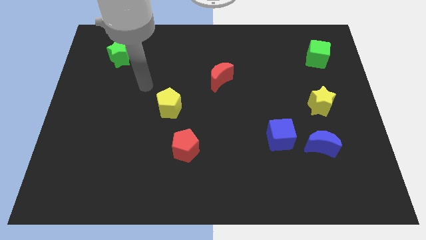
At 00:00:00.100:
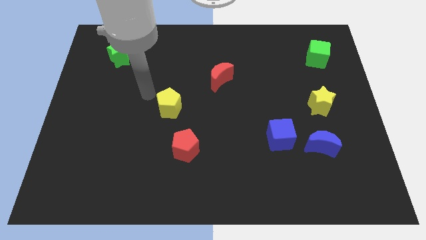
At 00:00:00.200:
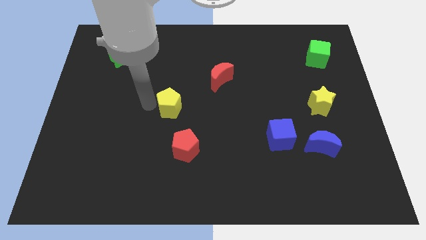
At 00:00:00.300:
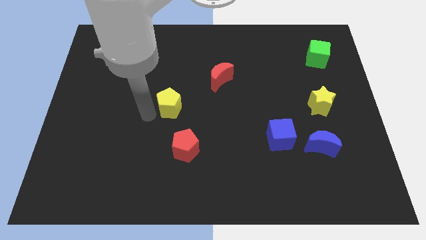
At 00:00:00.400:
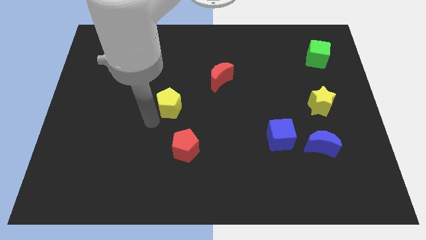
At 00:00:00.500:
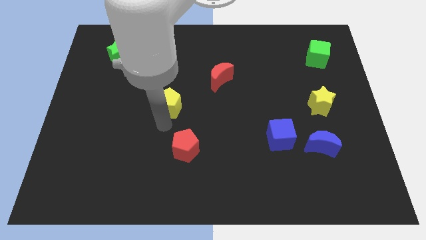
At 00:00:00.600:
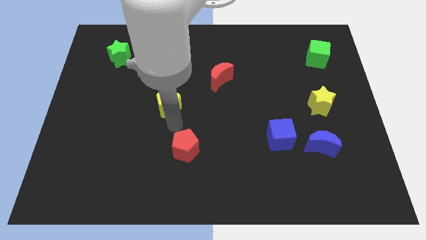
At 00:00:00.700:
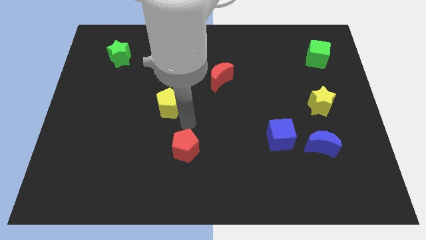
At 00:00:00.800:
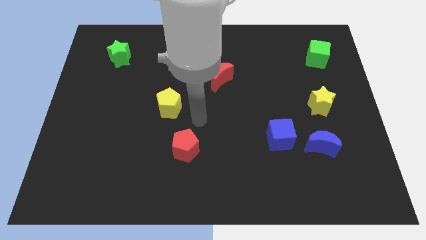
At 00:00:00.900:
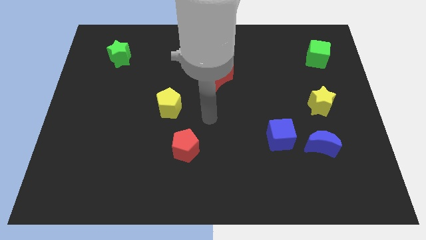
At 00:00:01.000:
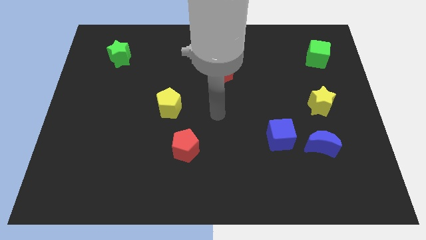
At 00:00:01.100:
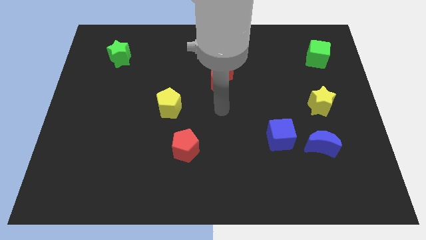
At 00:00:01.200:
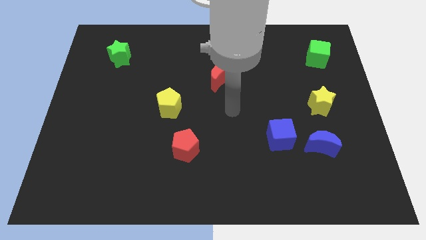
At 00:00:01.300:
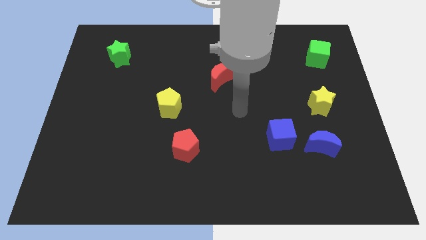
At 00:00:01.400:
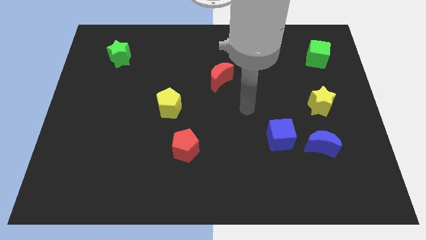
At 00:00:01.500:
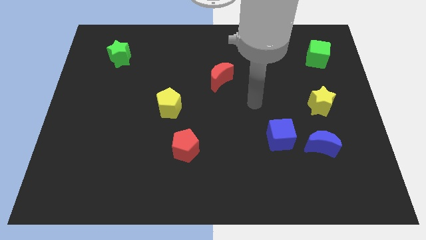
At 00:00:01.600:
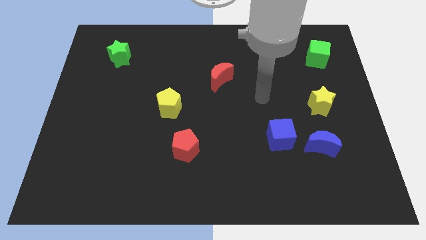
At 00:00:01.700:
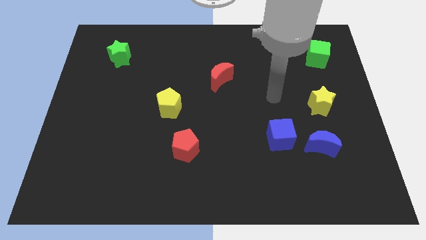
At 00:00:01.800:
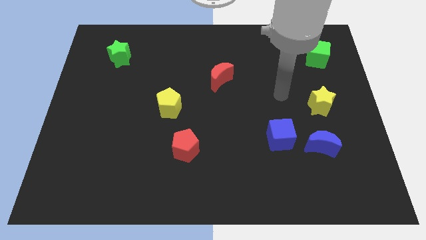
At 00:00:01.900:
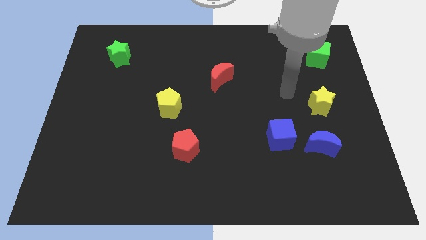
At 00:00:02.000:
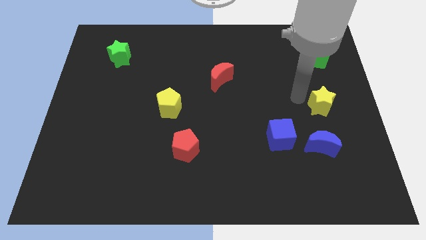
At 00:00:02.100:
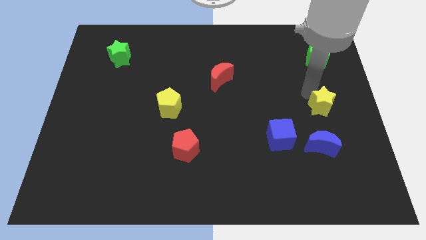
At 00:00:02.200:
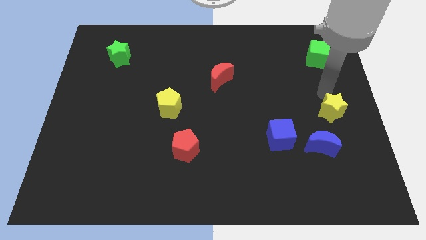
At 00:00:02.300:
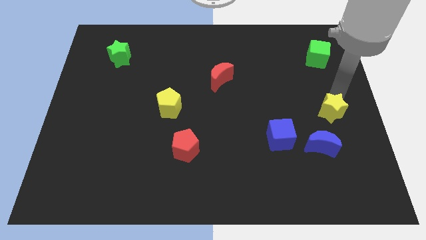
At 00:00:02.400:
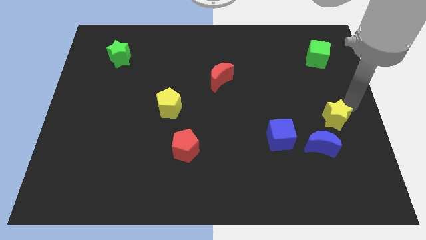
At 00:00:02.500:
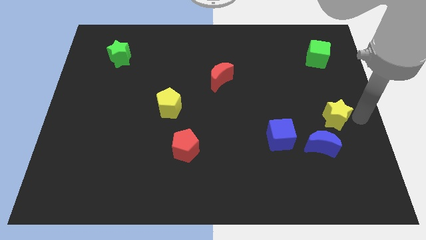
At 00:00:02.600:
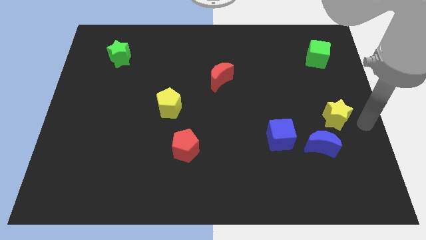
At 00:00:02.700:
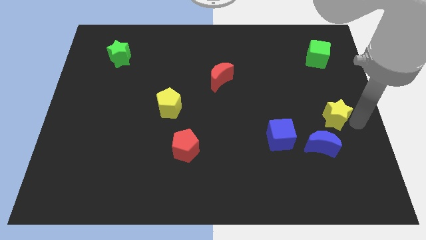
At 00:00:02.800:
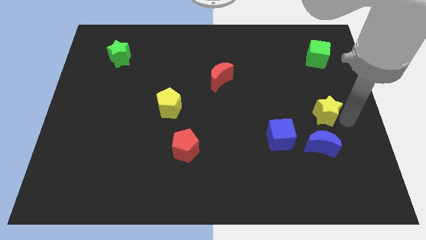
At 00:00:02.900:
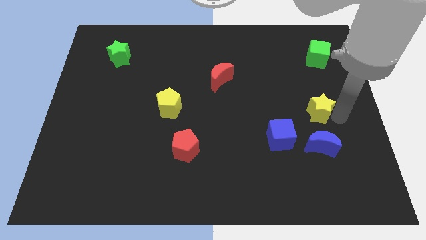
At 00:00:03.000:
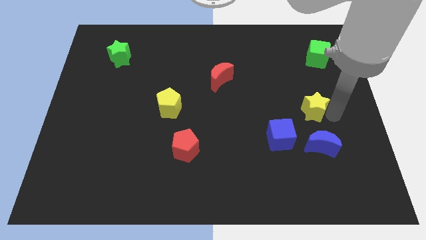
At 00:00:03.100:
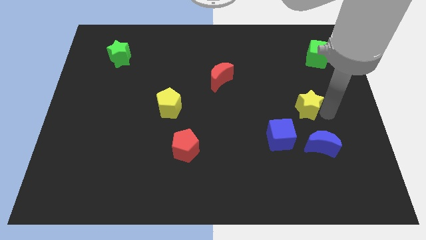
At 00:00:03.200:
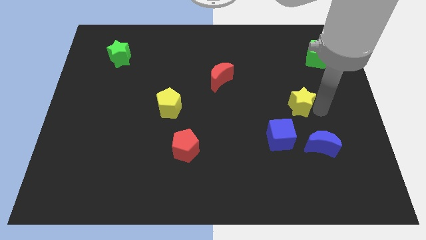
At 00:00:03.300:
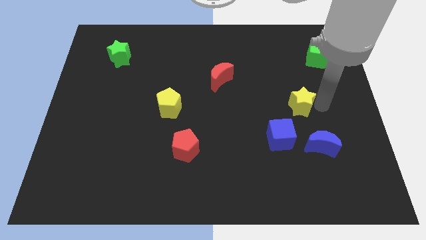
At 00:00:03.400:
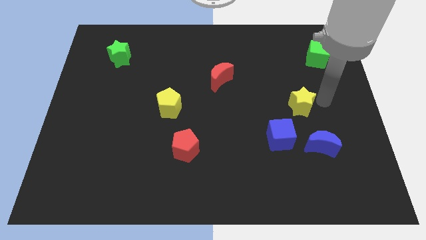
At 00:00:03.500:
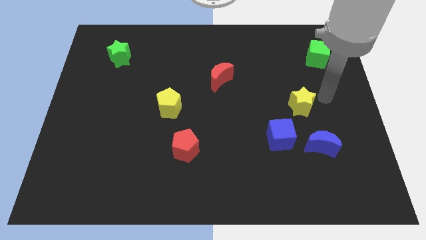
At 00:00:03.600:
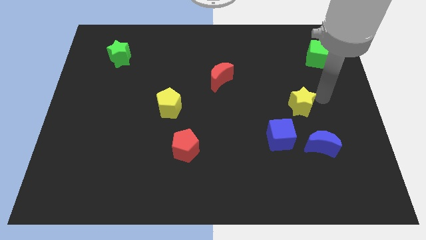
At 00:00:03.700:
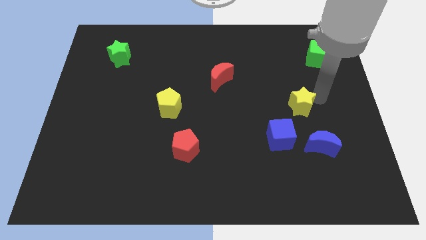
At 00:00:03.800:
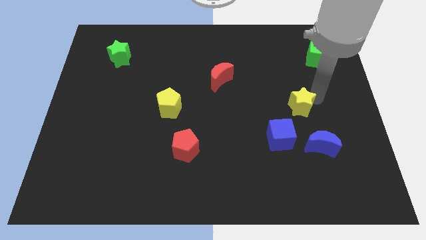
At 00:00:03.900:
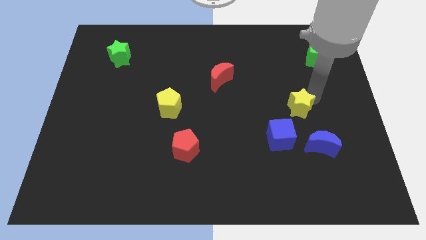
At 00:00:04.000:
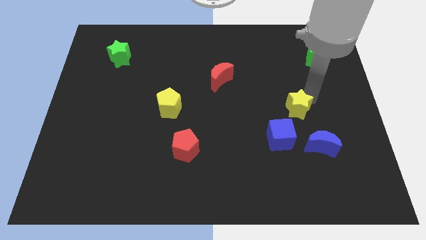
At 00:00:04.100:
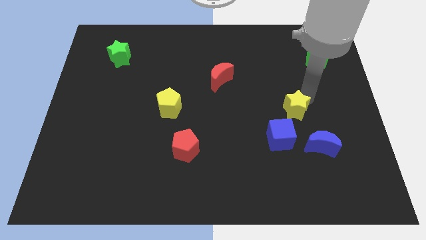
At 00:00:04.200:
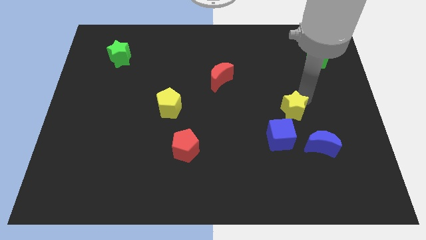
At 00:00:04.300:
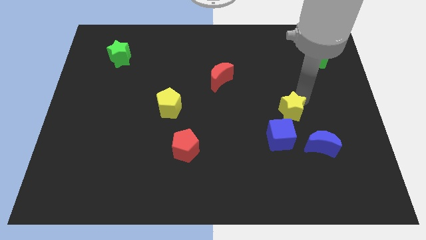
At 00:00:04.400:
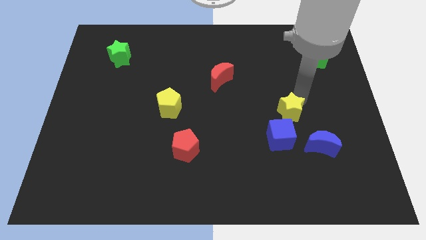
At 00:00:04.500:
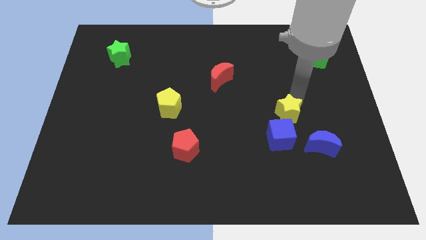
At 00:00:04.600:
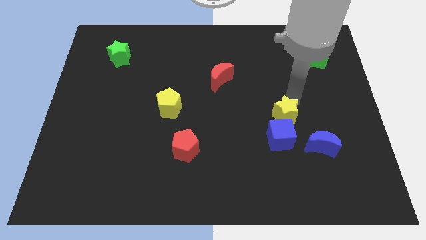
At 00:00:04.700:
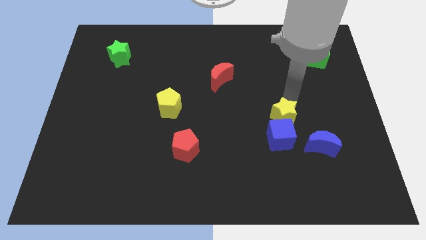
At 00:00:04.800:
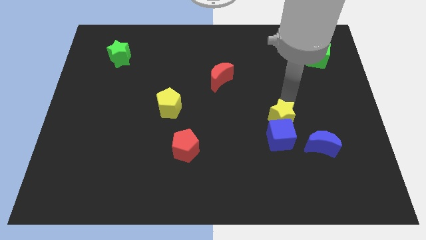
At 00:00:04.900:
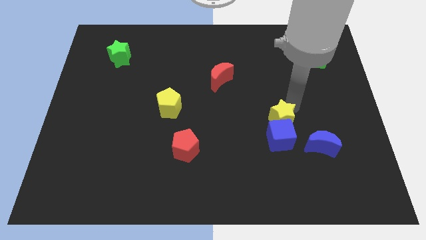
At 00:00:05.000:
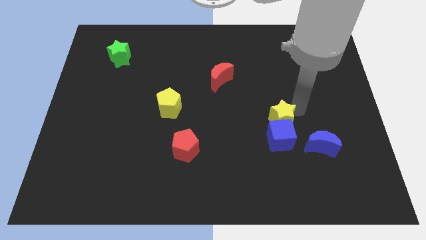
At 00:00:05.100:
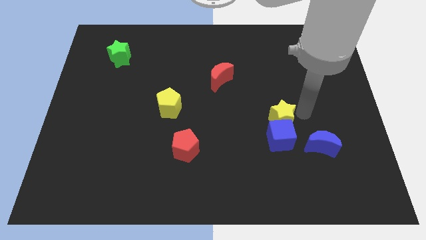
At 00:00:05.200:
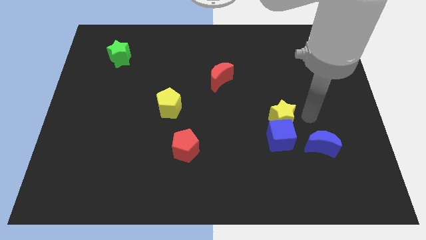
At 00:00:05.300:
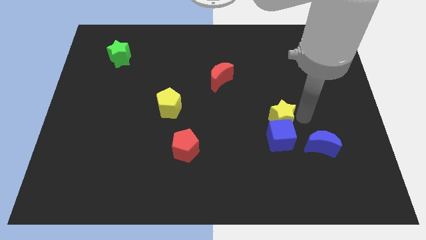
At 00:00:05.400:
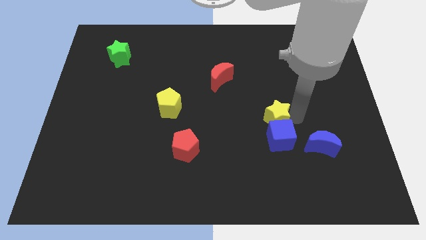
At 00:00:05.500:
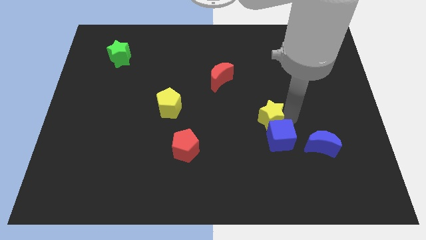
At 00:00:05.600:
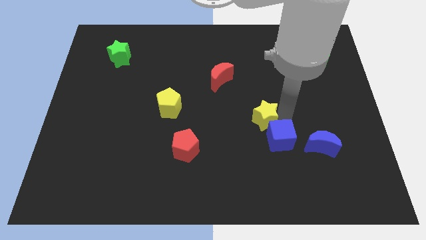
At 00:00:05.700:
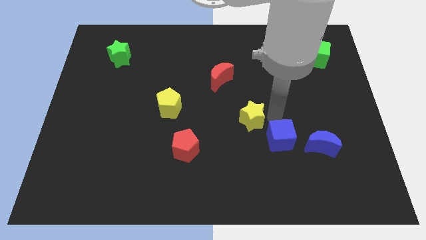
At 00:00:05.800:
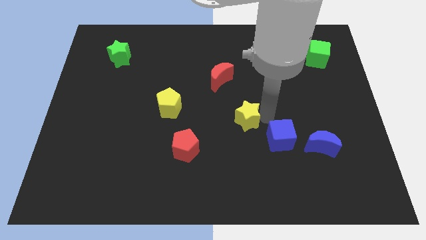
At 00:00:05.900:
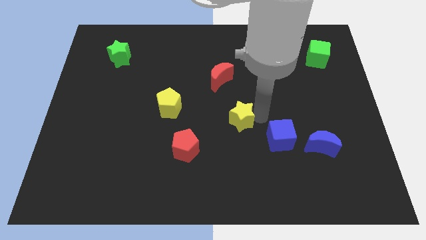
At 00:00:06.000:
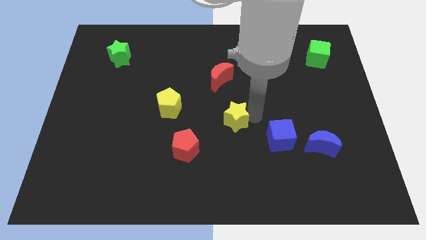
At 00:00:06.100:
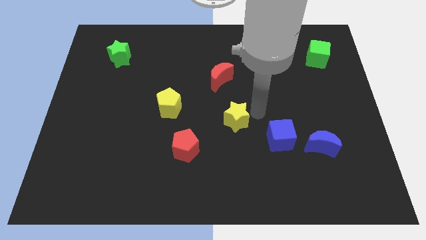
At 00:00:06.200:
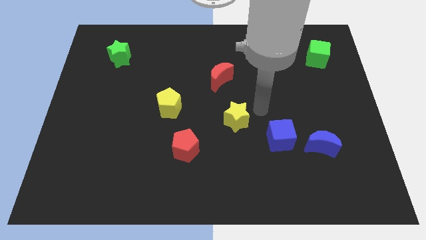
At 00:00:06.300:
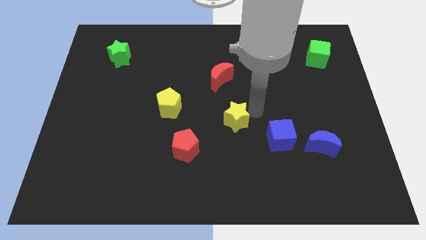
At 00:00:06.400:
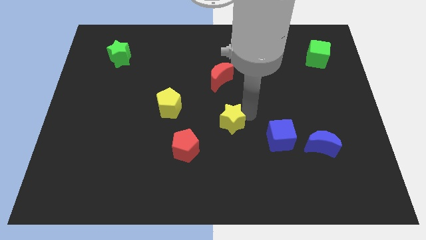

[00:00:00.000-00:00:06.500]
move the yellow star to the top right of the red pentagon

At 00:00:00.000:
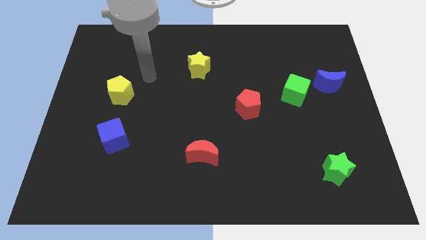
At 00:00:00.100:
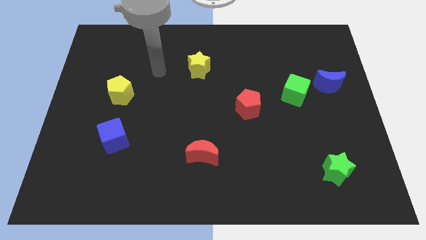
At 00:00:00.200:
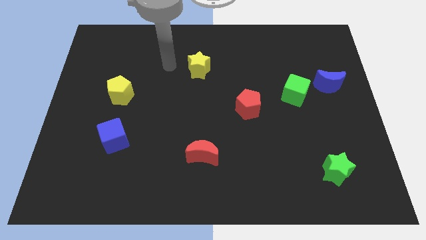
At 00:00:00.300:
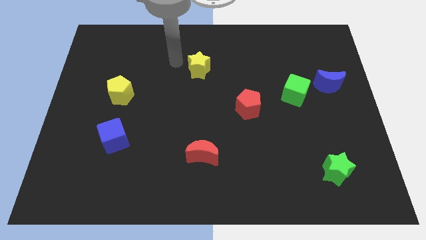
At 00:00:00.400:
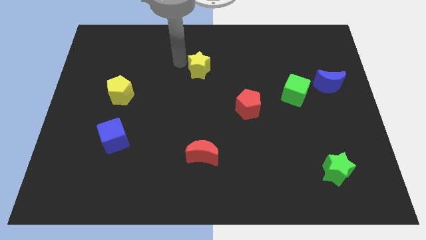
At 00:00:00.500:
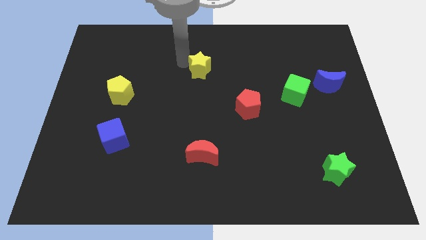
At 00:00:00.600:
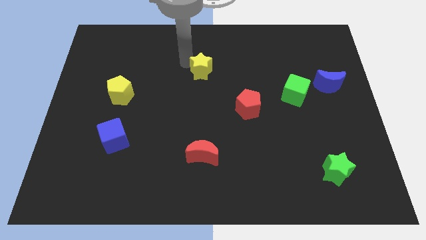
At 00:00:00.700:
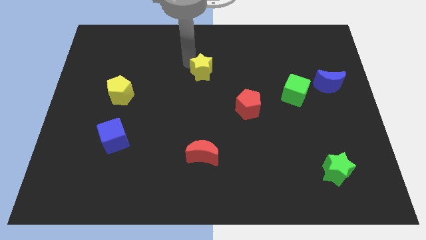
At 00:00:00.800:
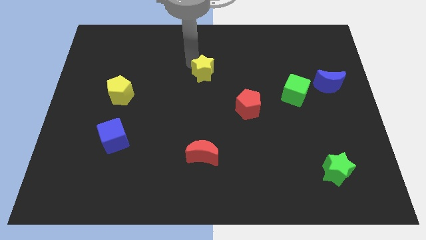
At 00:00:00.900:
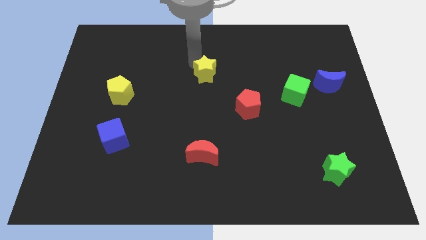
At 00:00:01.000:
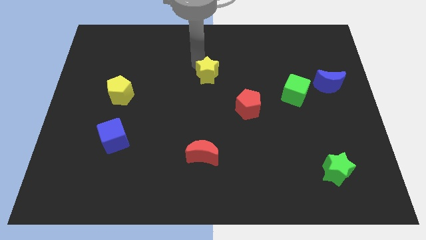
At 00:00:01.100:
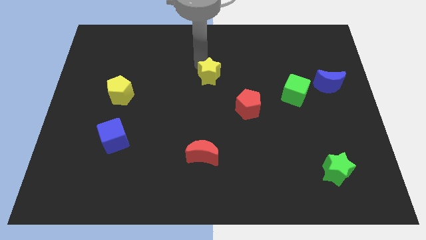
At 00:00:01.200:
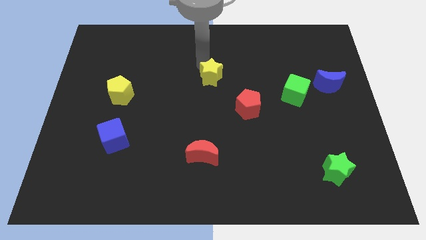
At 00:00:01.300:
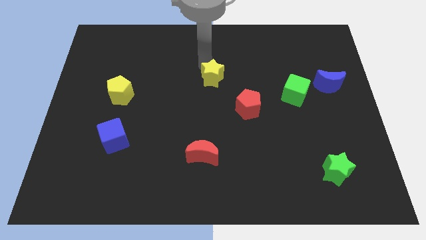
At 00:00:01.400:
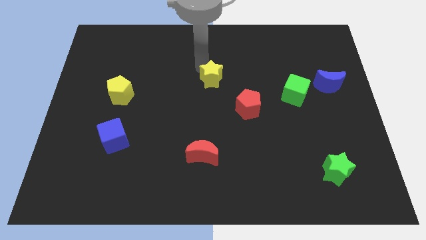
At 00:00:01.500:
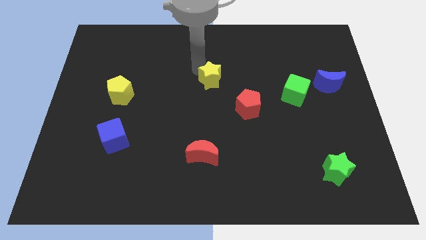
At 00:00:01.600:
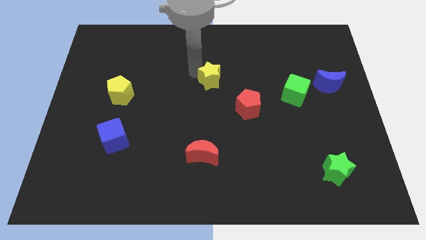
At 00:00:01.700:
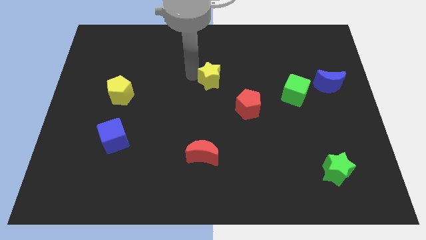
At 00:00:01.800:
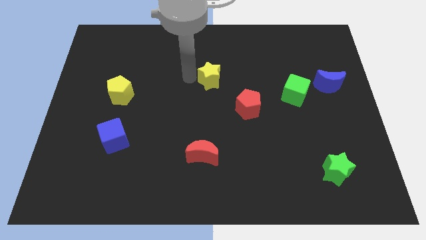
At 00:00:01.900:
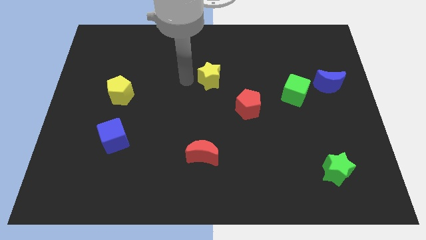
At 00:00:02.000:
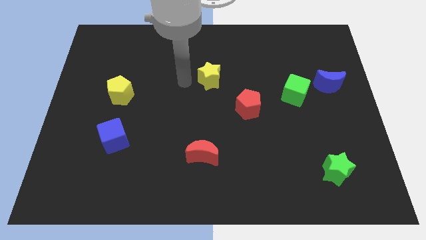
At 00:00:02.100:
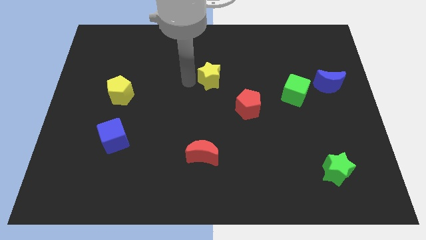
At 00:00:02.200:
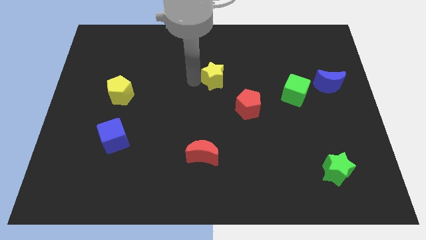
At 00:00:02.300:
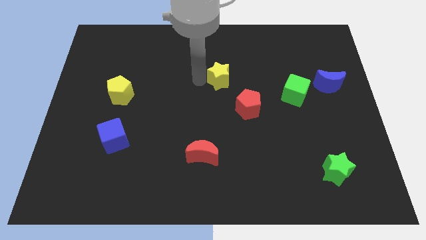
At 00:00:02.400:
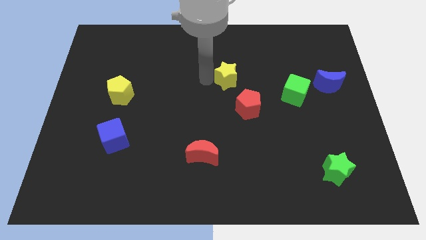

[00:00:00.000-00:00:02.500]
move the yellow star to the top of the red pentagon
